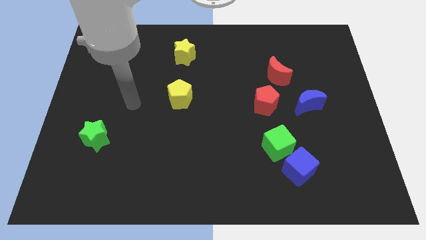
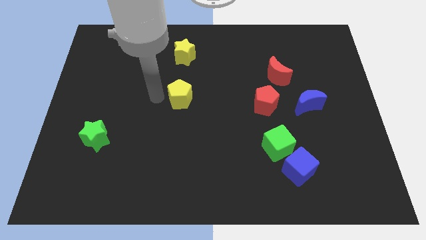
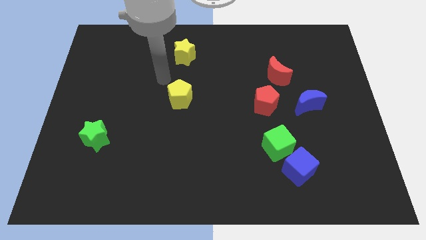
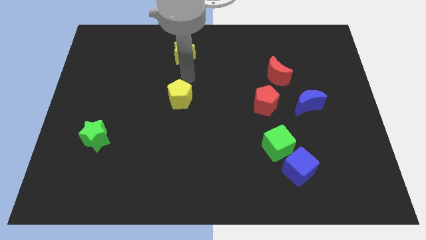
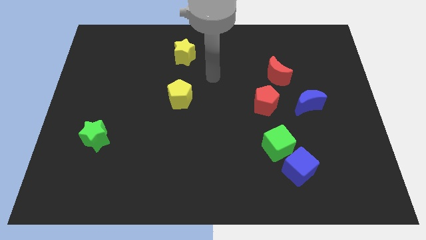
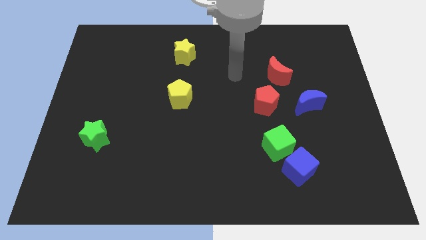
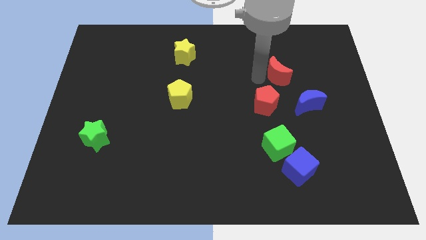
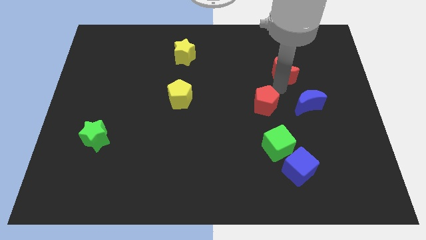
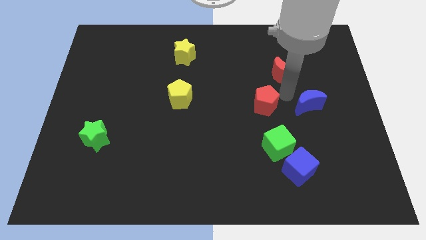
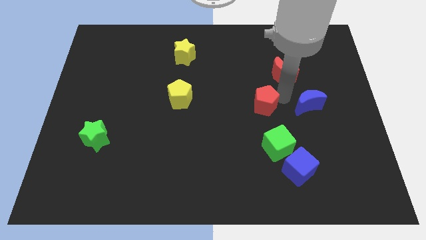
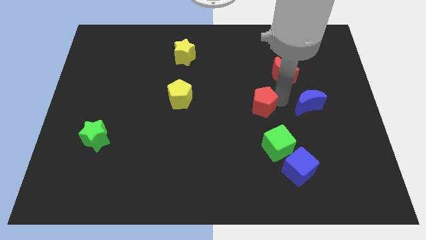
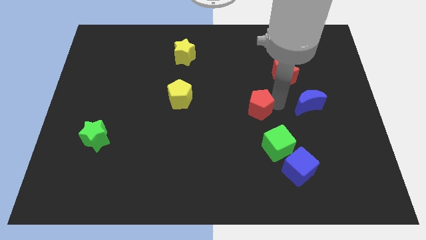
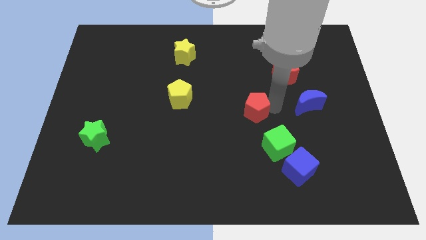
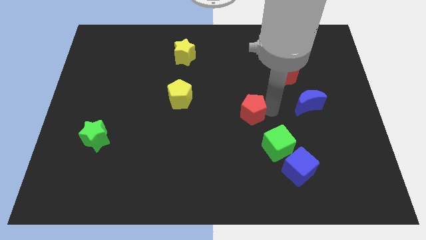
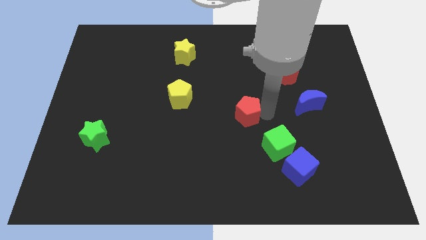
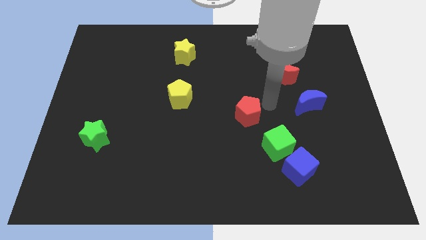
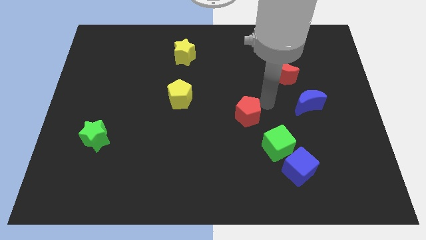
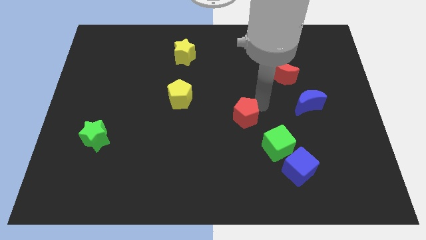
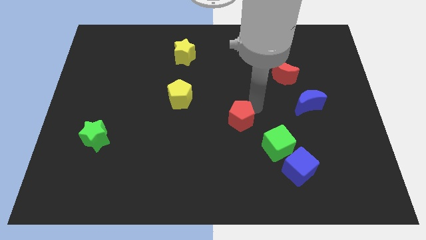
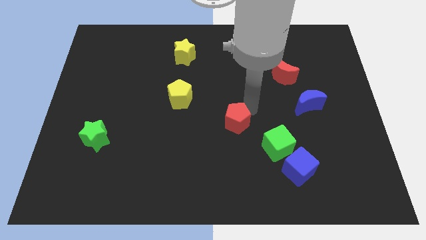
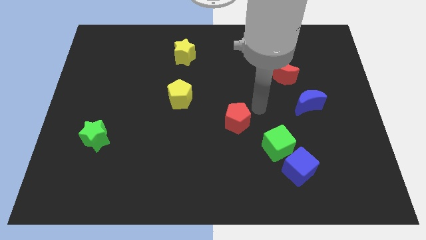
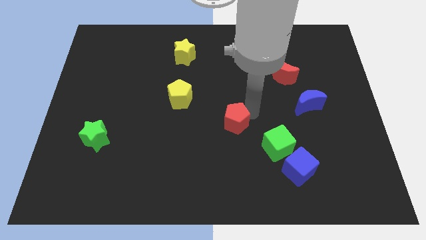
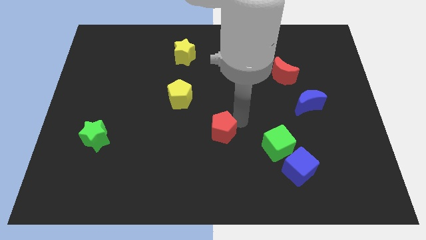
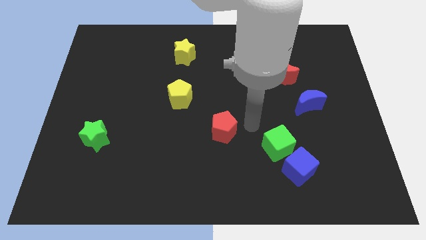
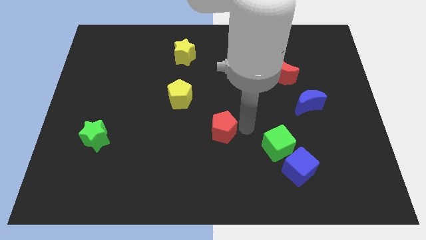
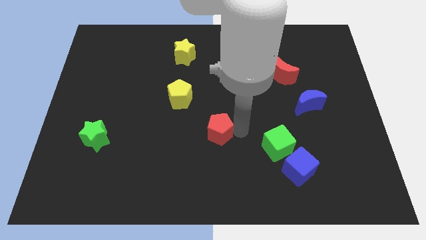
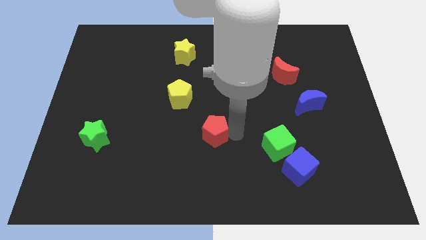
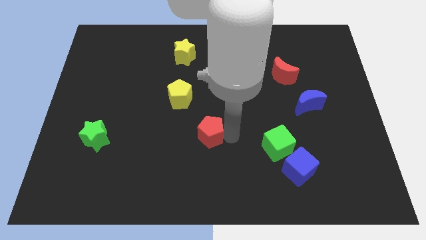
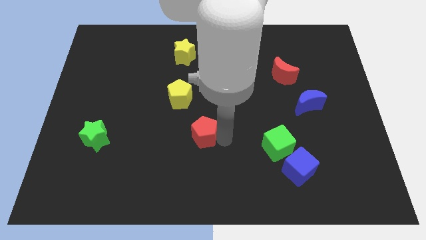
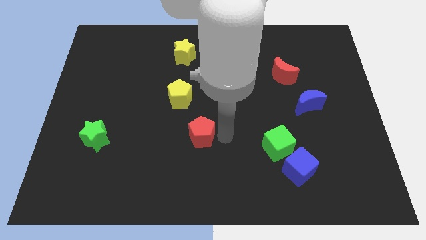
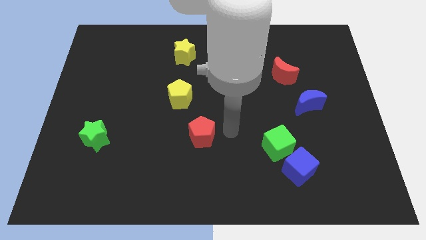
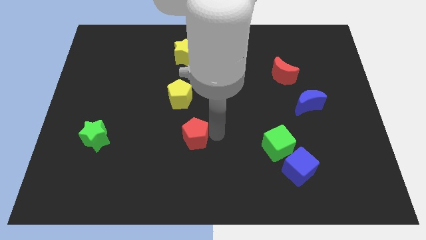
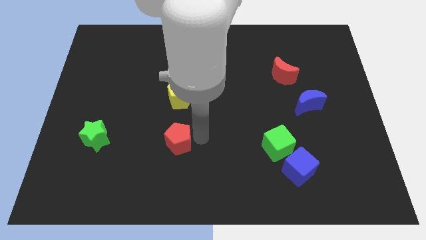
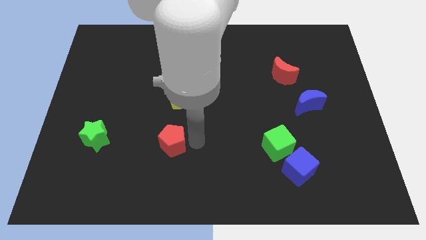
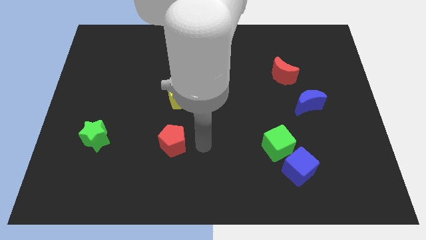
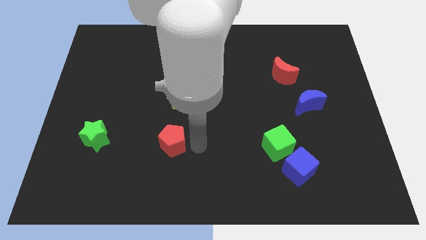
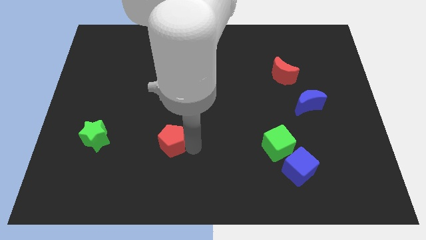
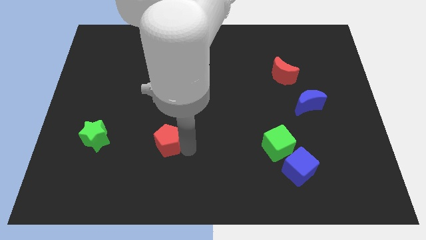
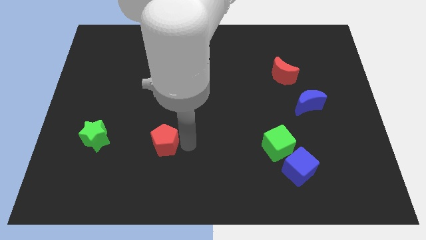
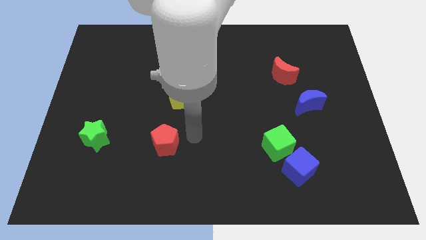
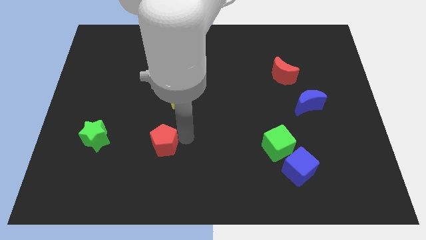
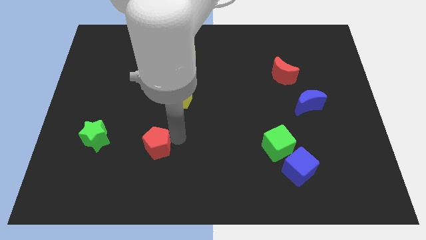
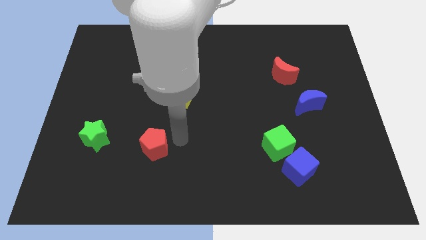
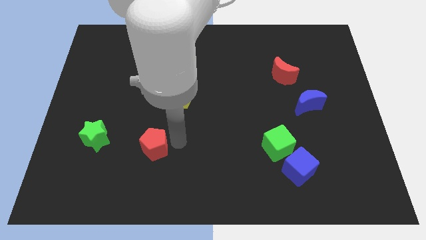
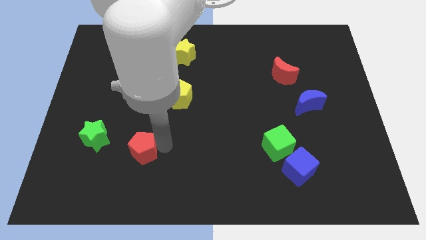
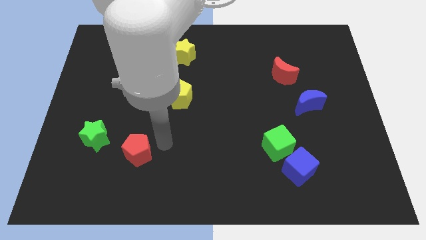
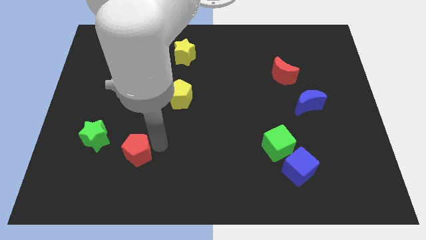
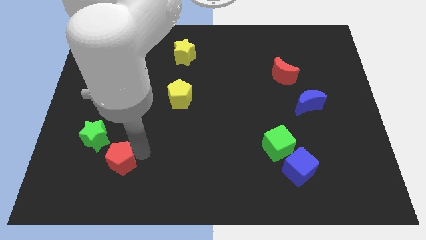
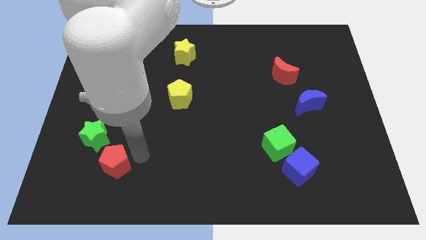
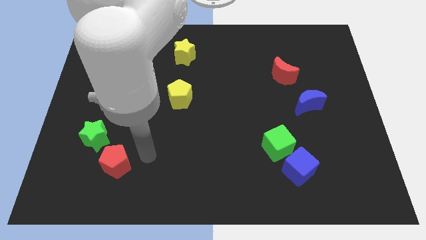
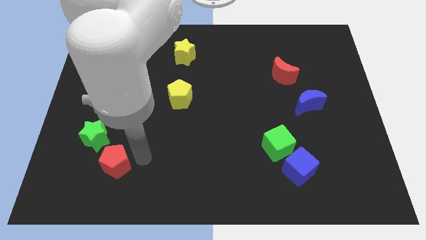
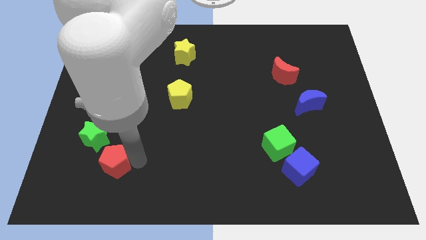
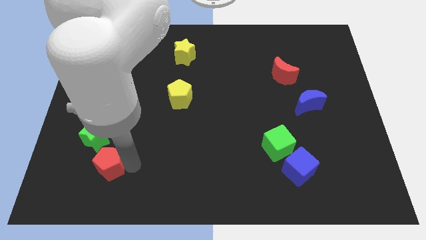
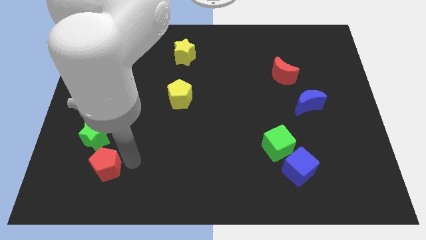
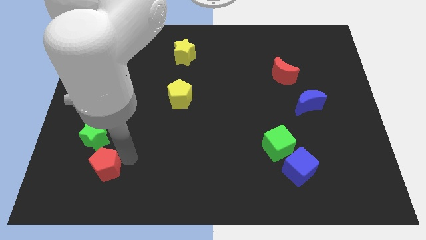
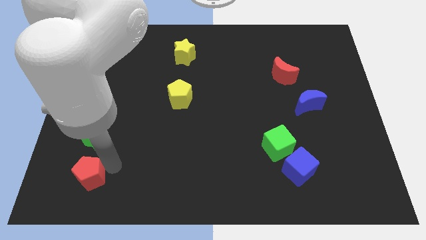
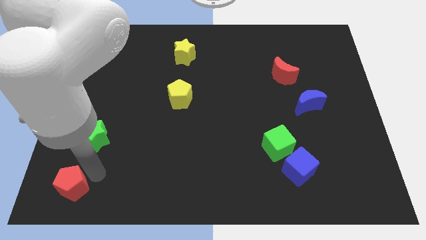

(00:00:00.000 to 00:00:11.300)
move the red pentagon to the lower left corner
